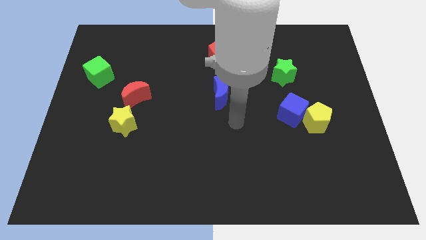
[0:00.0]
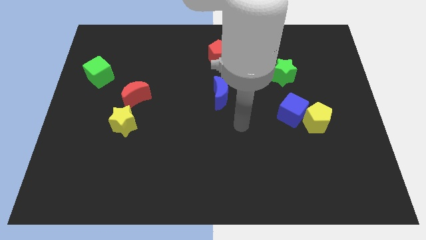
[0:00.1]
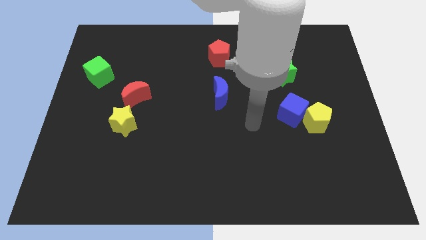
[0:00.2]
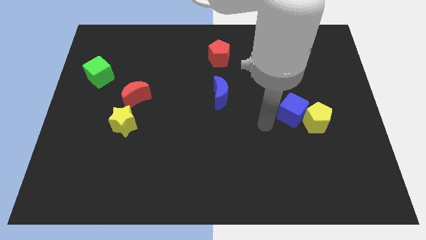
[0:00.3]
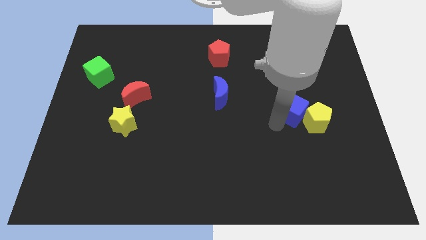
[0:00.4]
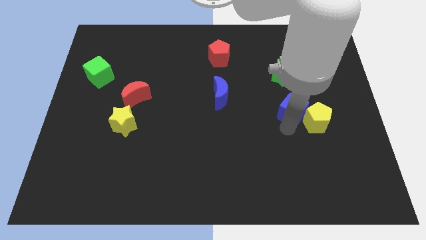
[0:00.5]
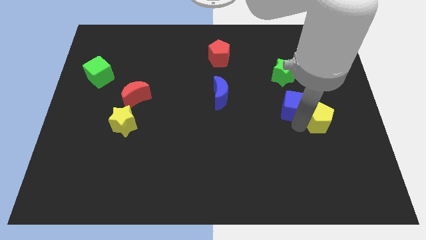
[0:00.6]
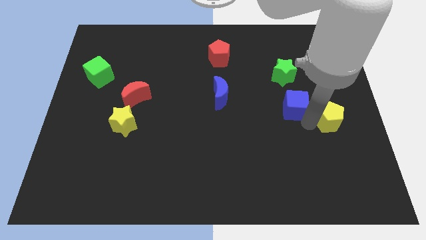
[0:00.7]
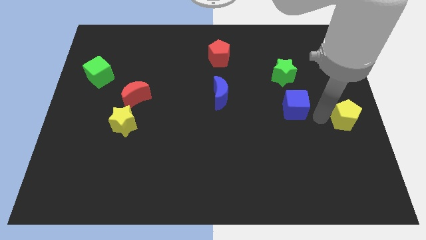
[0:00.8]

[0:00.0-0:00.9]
separate the blue cube from the yellow pentagon

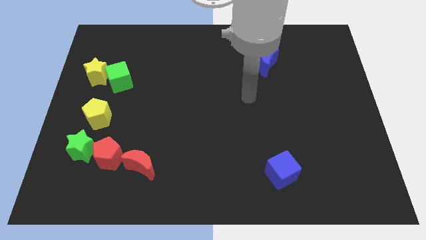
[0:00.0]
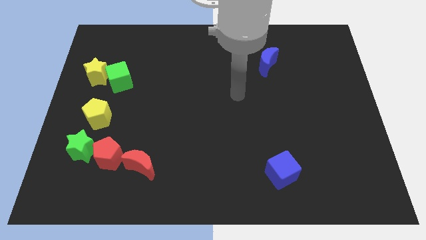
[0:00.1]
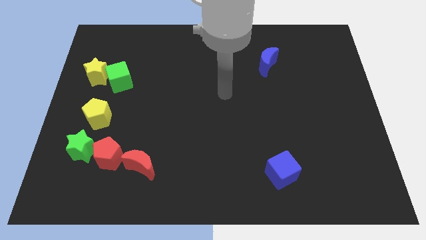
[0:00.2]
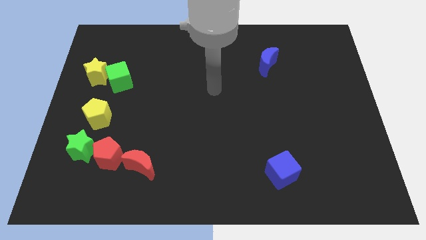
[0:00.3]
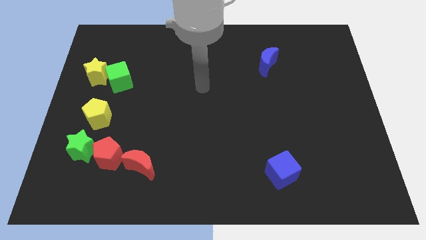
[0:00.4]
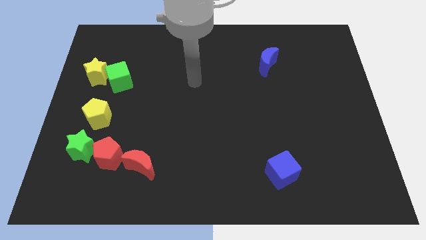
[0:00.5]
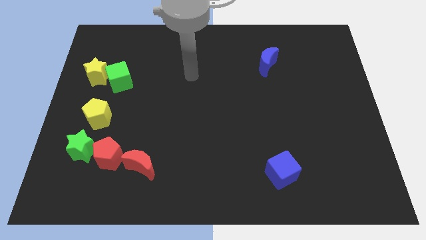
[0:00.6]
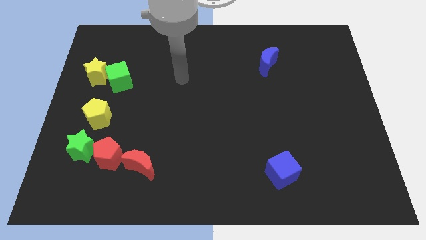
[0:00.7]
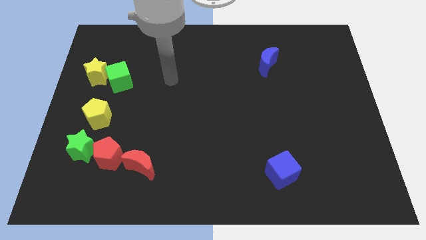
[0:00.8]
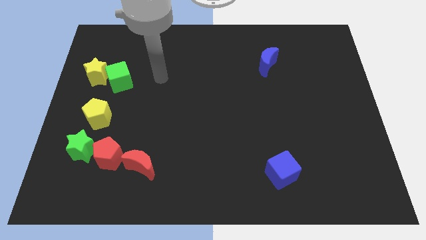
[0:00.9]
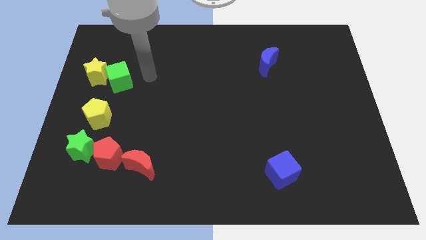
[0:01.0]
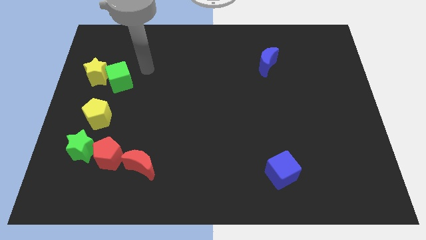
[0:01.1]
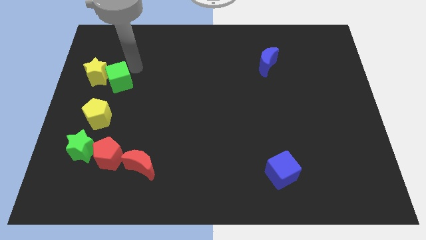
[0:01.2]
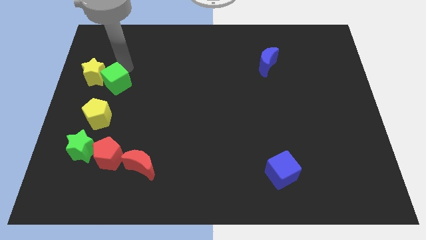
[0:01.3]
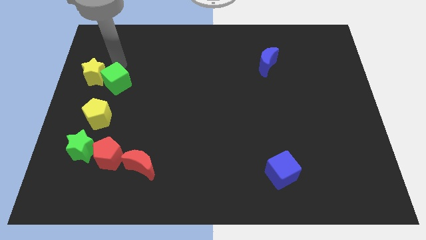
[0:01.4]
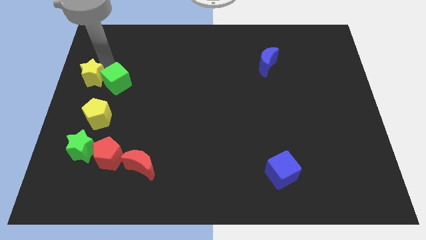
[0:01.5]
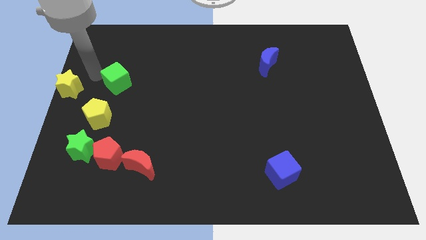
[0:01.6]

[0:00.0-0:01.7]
move the green cube away from the yellow star

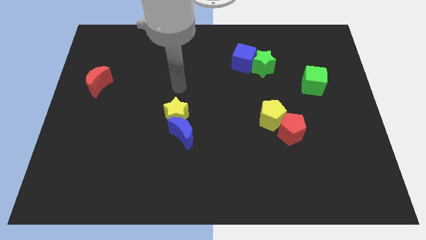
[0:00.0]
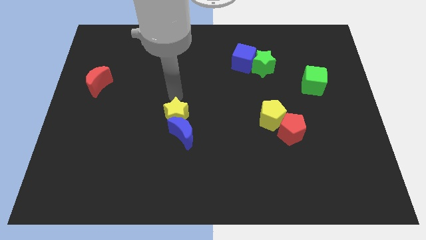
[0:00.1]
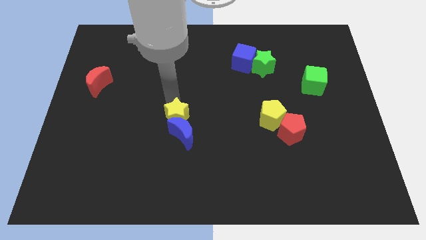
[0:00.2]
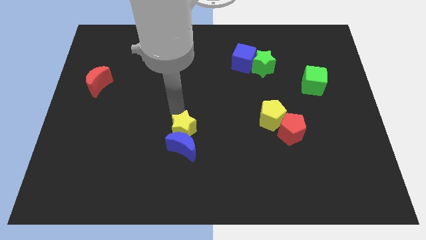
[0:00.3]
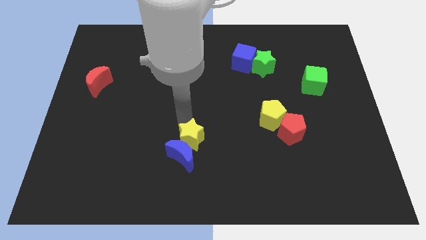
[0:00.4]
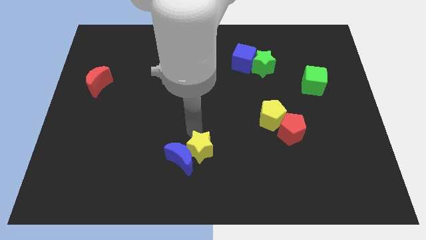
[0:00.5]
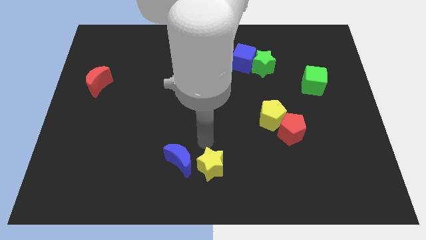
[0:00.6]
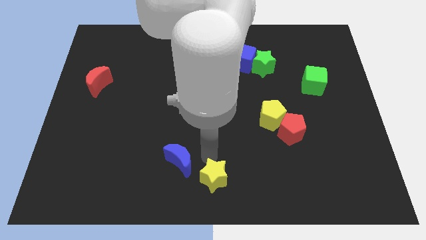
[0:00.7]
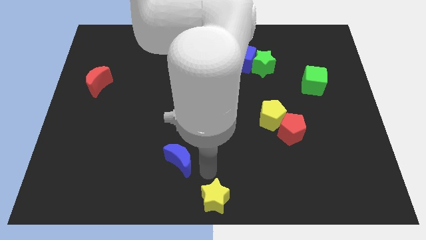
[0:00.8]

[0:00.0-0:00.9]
pull the blue moon apart from the yellow star

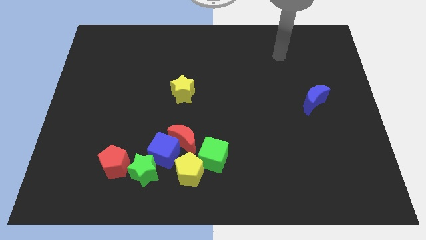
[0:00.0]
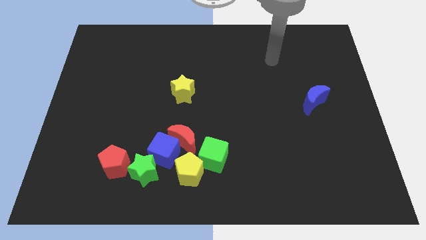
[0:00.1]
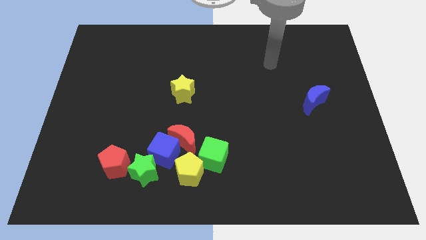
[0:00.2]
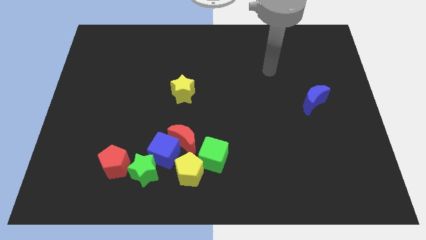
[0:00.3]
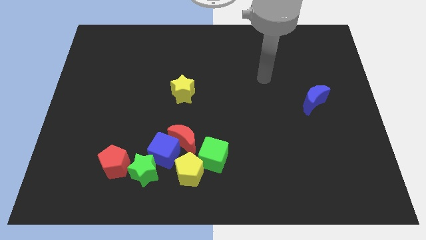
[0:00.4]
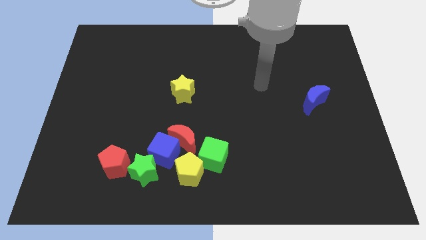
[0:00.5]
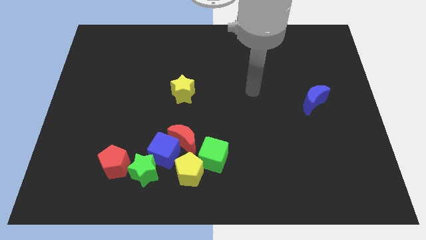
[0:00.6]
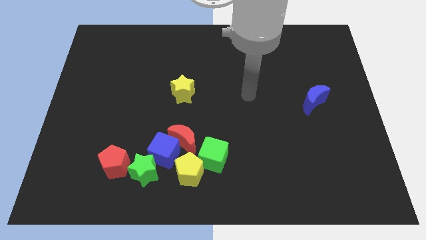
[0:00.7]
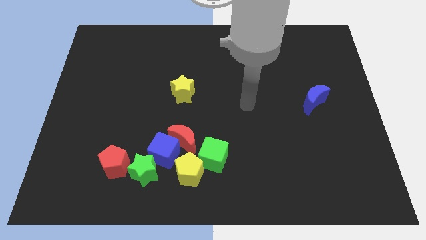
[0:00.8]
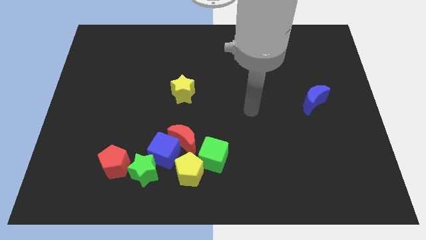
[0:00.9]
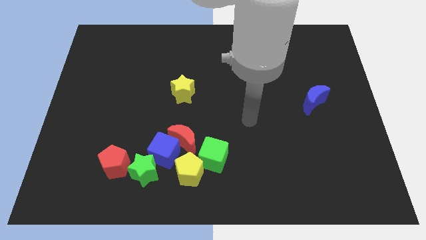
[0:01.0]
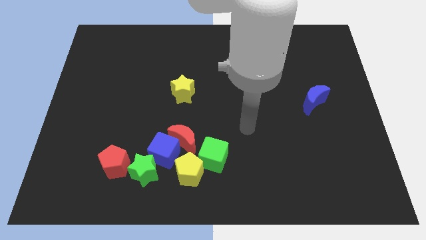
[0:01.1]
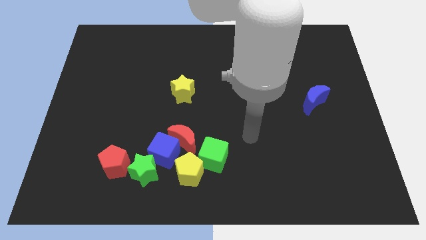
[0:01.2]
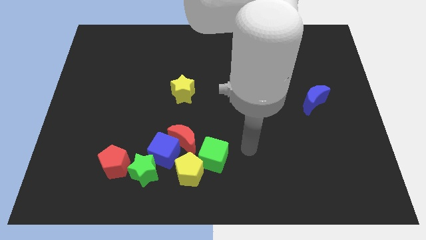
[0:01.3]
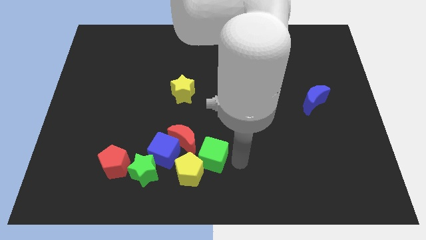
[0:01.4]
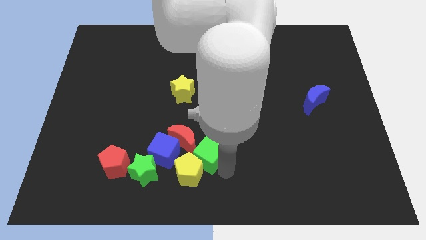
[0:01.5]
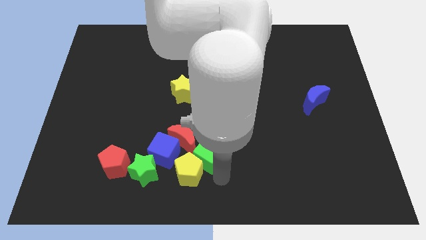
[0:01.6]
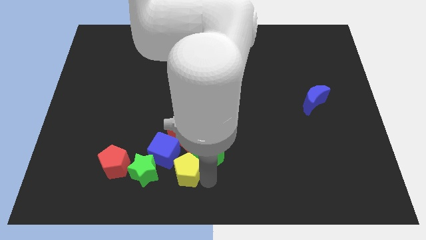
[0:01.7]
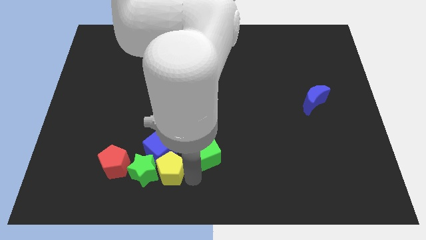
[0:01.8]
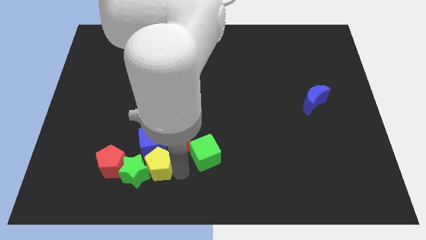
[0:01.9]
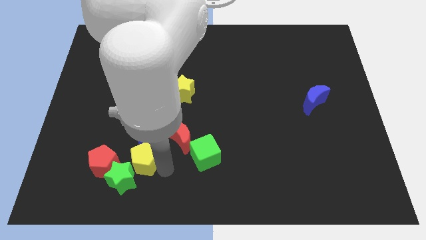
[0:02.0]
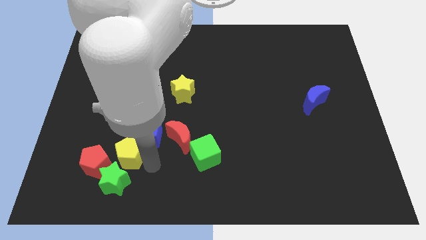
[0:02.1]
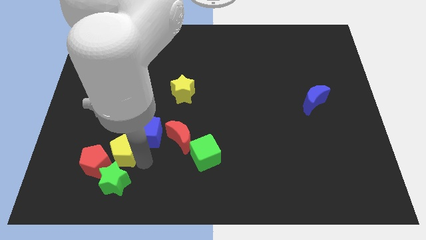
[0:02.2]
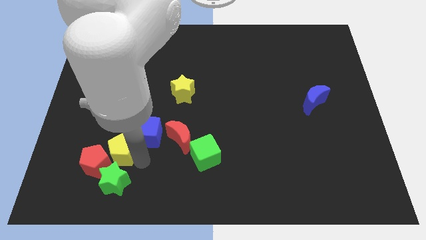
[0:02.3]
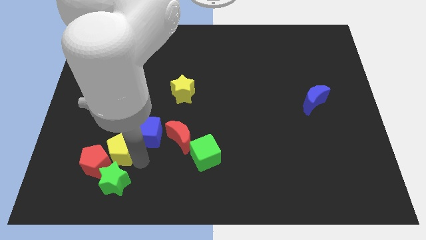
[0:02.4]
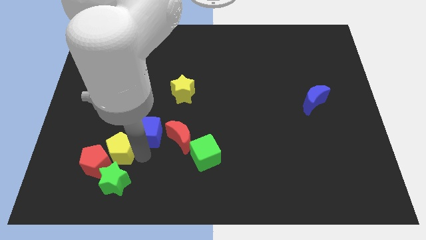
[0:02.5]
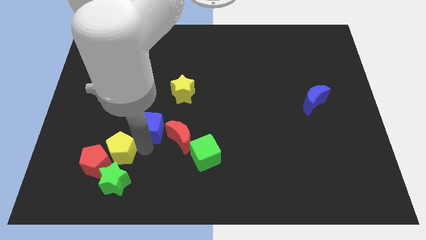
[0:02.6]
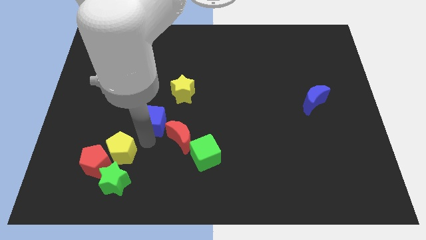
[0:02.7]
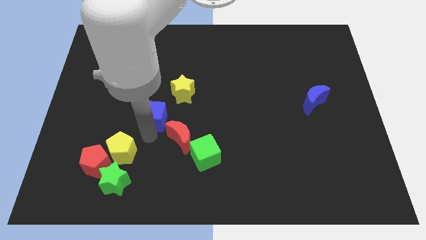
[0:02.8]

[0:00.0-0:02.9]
separate the blue cube from the red moon, green star, and yellow pentagon

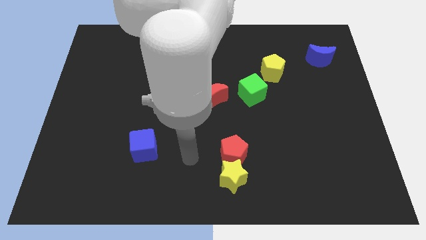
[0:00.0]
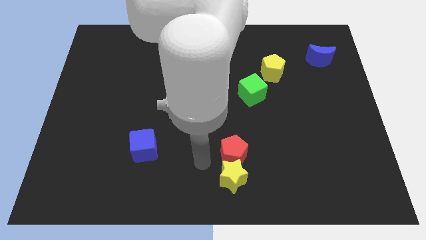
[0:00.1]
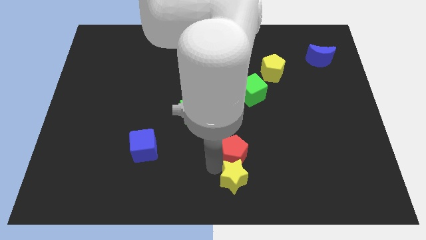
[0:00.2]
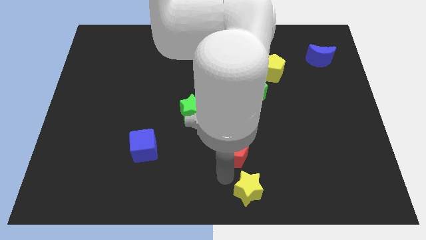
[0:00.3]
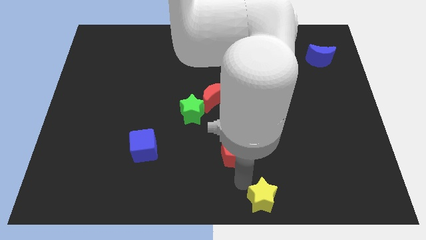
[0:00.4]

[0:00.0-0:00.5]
move the red pentagon away from the yellow star

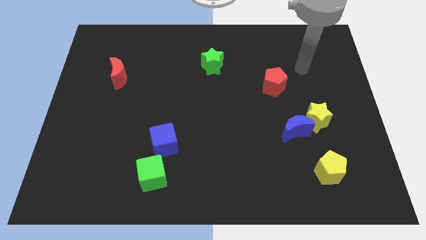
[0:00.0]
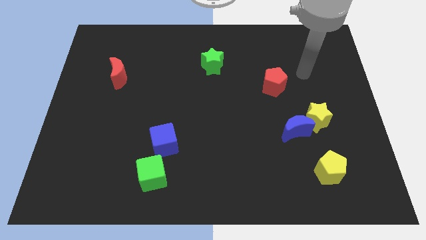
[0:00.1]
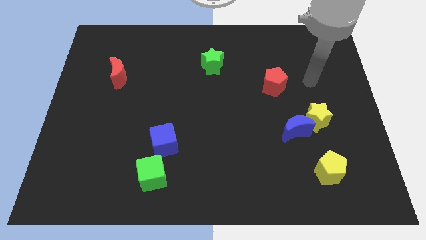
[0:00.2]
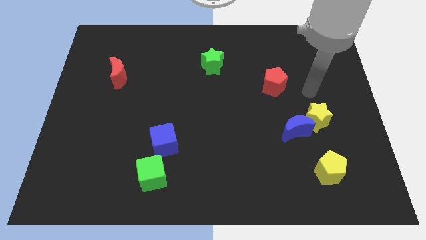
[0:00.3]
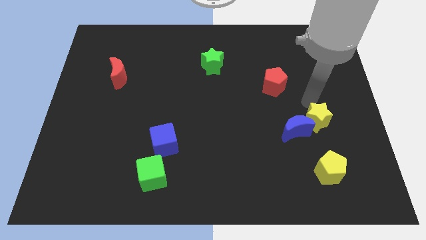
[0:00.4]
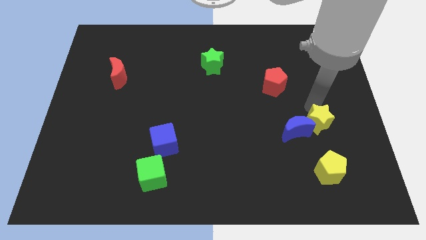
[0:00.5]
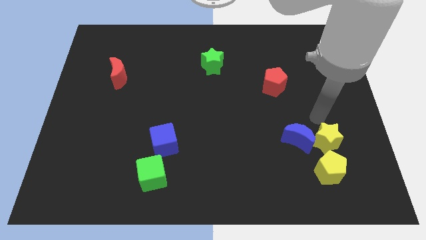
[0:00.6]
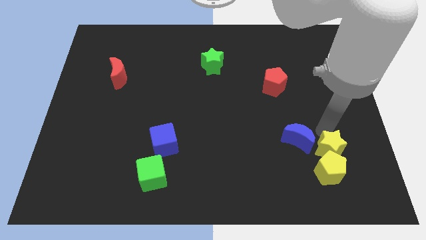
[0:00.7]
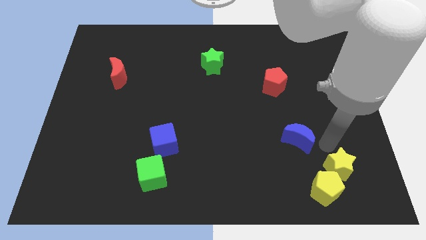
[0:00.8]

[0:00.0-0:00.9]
move the blue moon away from the yellow star

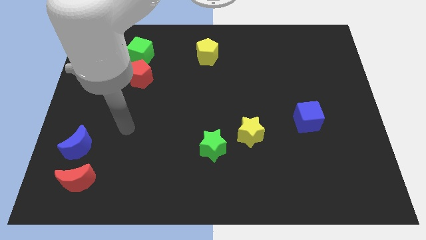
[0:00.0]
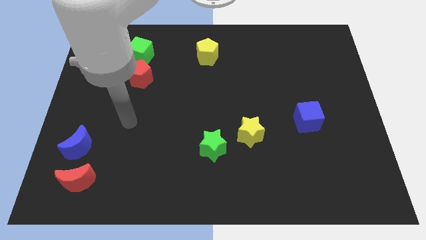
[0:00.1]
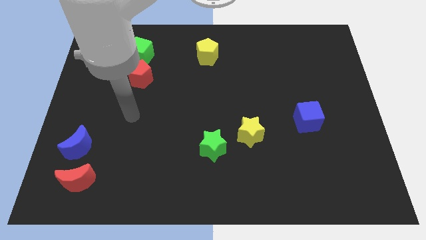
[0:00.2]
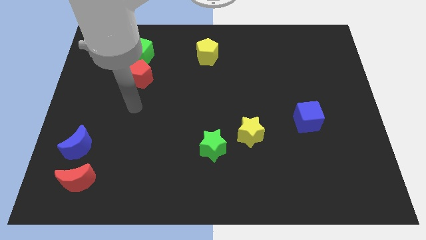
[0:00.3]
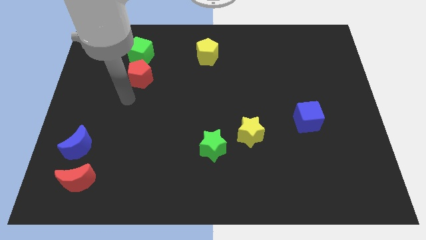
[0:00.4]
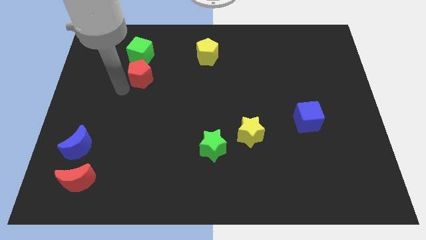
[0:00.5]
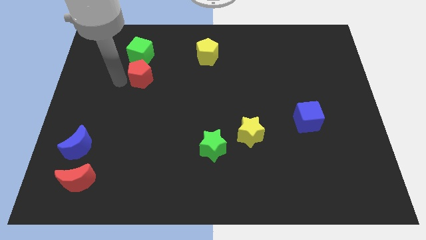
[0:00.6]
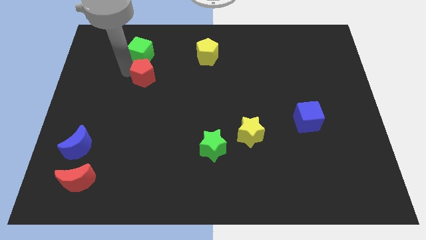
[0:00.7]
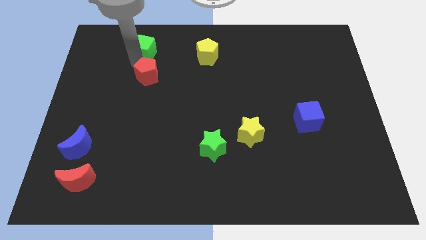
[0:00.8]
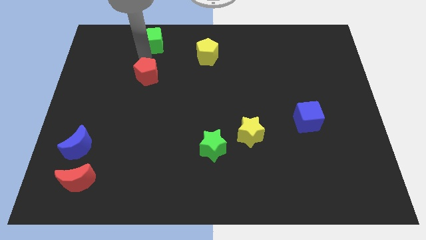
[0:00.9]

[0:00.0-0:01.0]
move the red pentagon away from the green cube

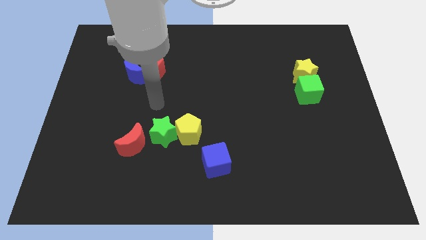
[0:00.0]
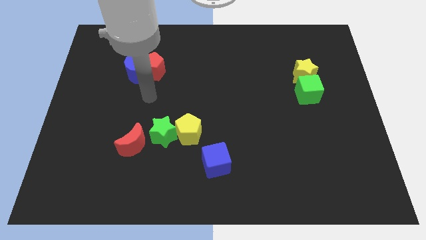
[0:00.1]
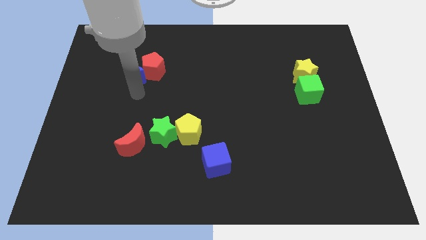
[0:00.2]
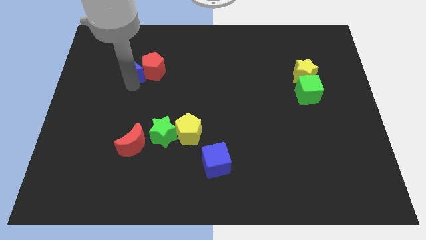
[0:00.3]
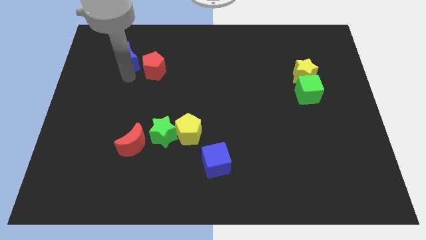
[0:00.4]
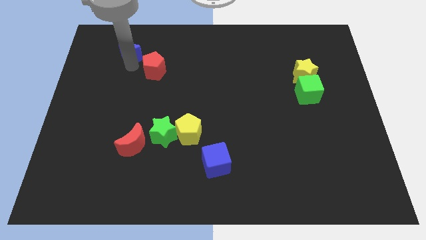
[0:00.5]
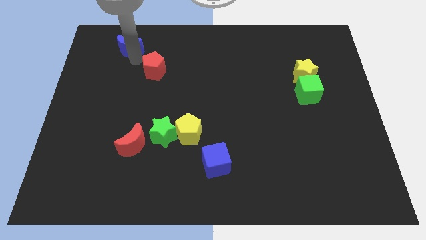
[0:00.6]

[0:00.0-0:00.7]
move the red pentagon away from the blue moon

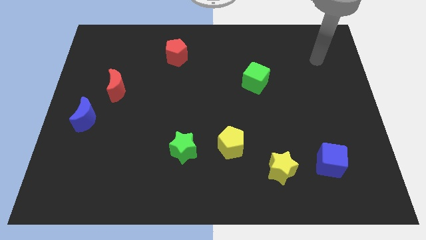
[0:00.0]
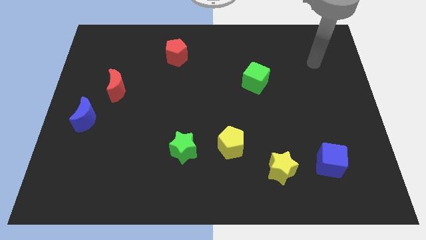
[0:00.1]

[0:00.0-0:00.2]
separate the green star from the yellow pentagon
